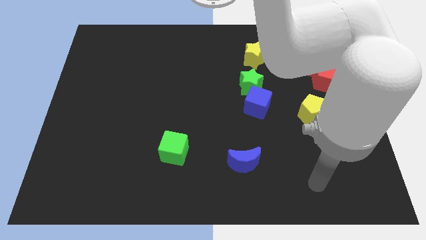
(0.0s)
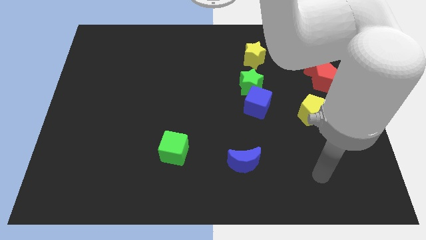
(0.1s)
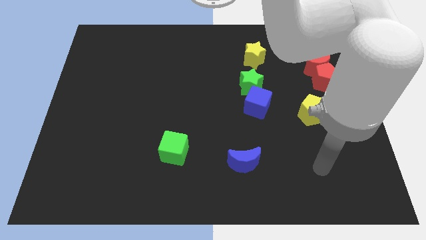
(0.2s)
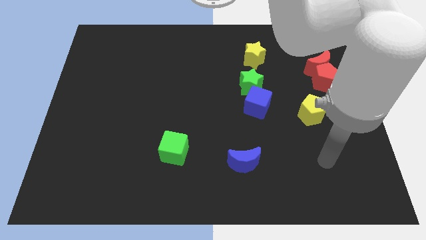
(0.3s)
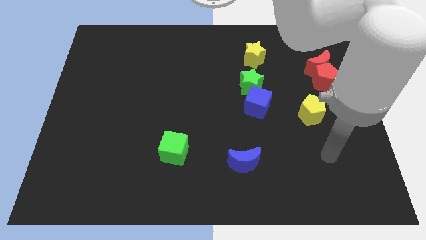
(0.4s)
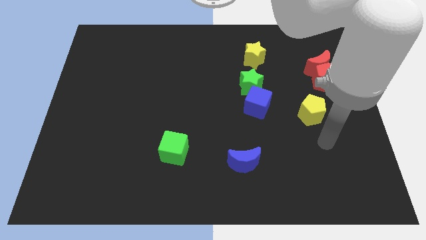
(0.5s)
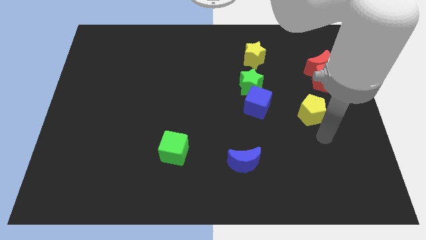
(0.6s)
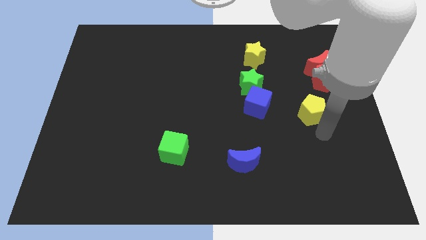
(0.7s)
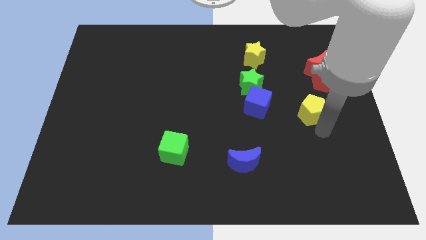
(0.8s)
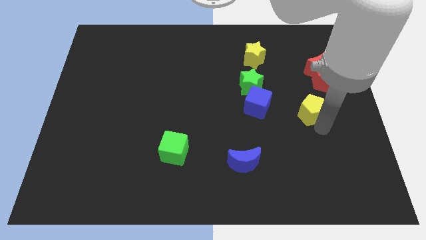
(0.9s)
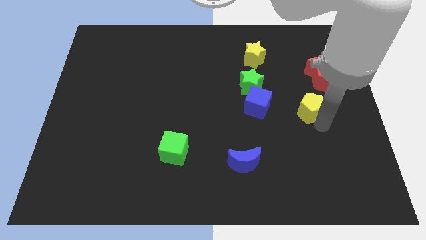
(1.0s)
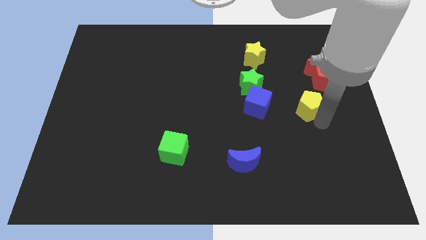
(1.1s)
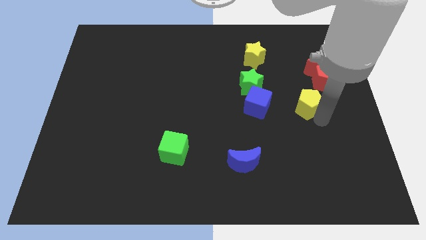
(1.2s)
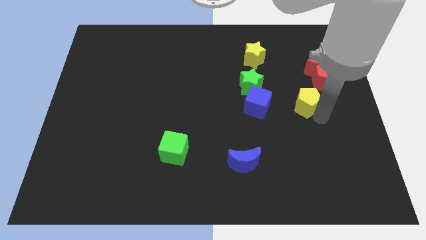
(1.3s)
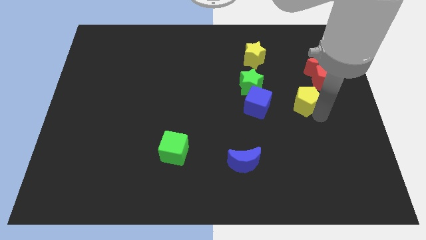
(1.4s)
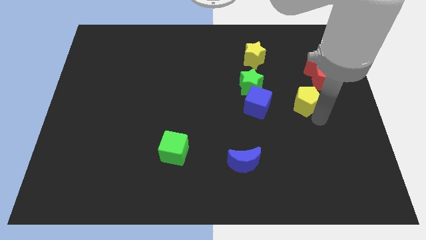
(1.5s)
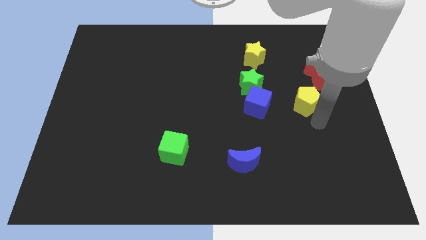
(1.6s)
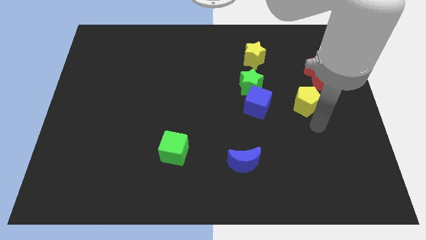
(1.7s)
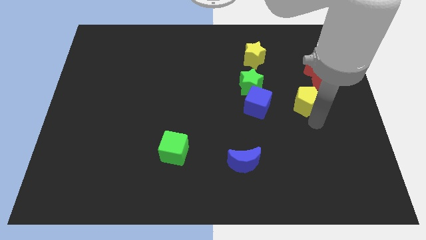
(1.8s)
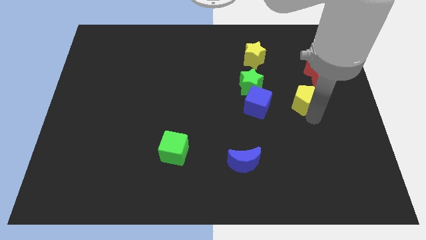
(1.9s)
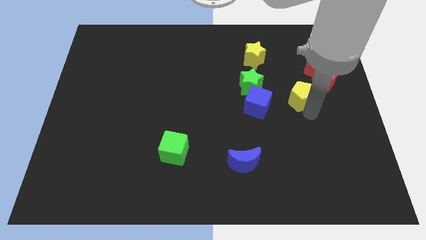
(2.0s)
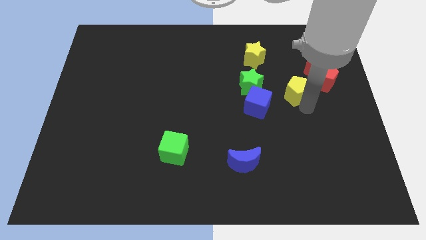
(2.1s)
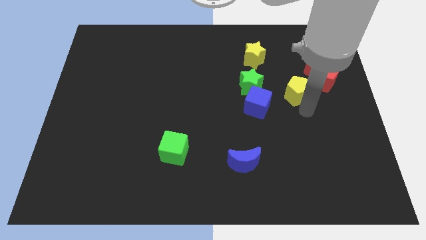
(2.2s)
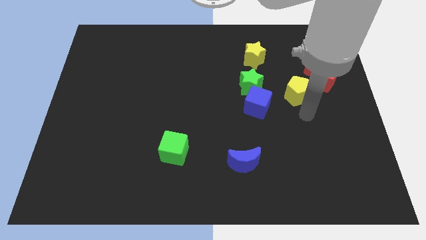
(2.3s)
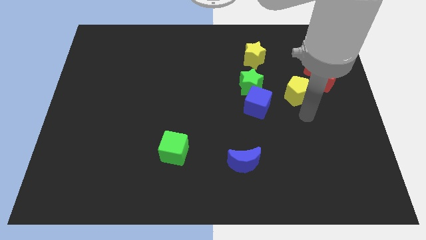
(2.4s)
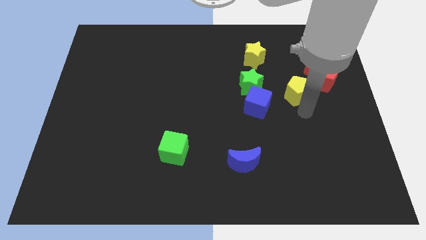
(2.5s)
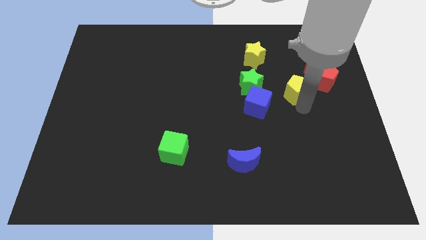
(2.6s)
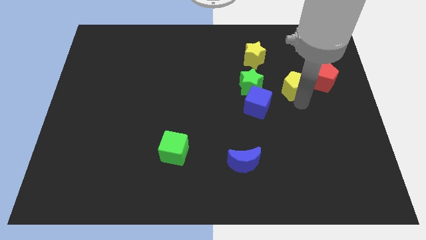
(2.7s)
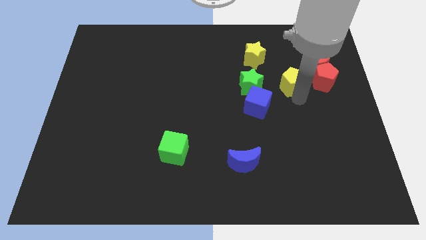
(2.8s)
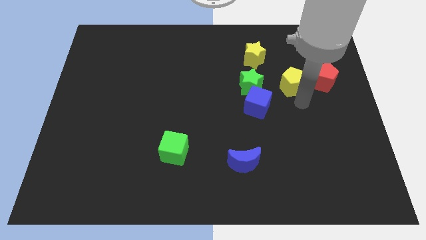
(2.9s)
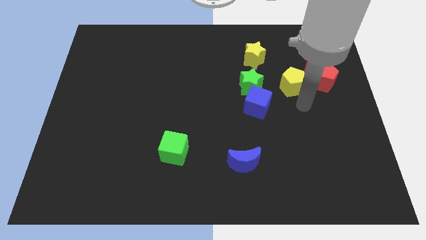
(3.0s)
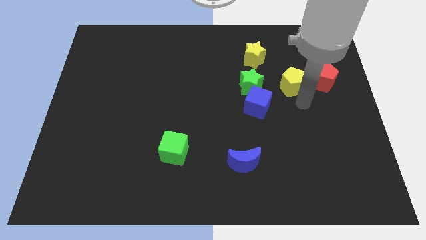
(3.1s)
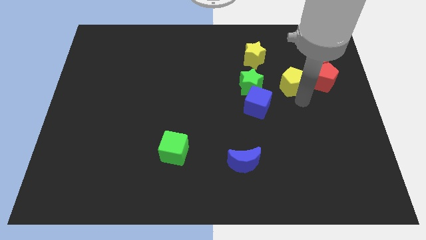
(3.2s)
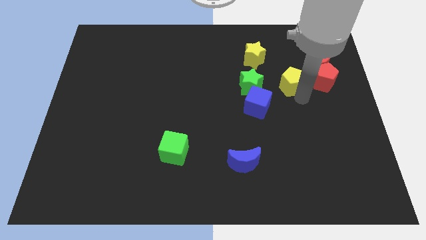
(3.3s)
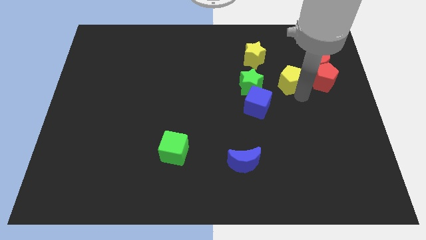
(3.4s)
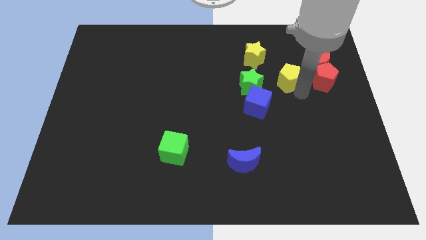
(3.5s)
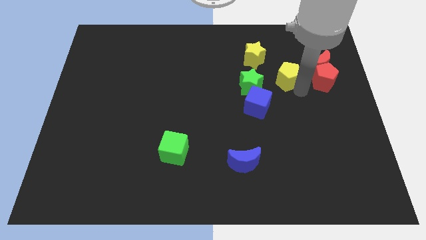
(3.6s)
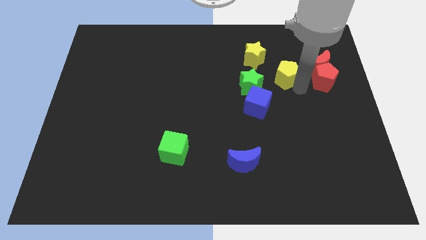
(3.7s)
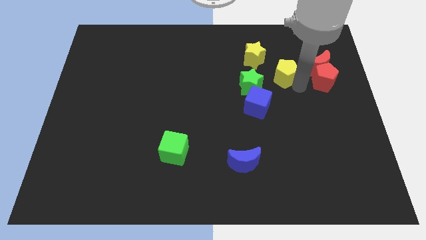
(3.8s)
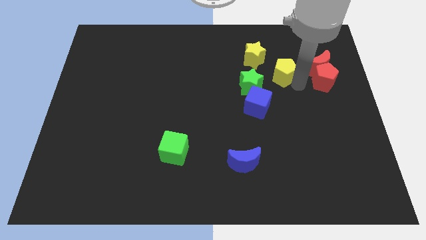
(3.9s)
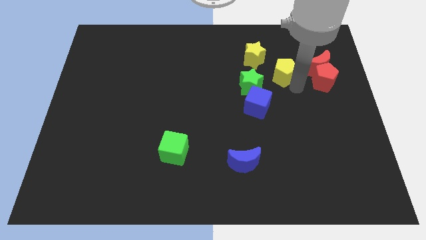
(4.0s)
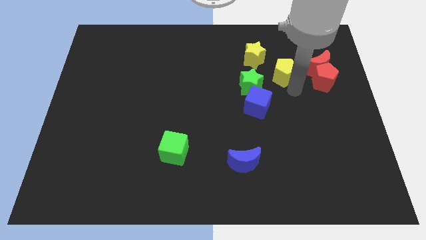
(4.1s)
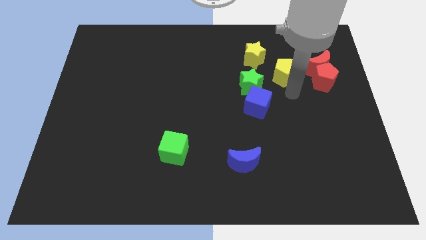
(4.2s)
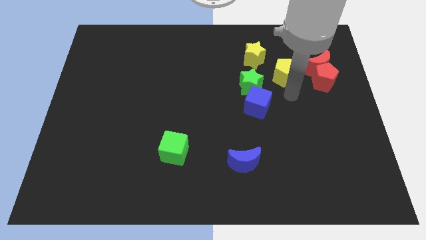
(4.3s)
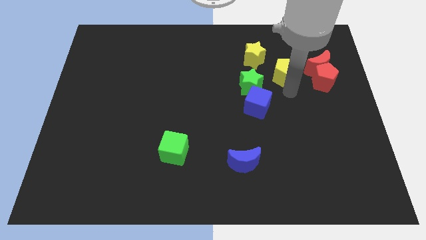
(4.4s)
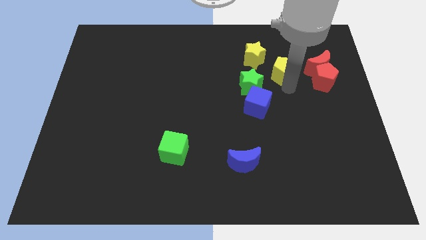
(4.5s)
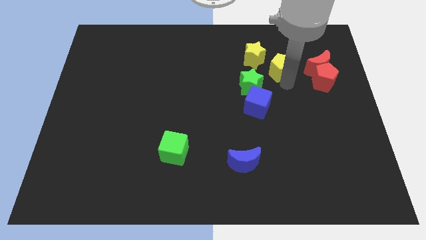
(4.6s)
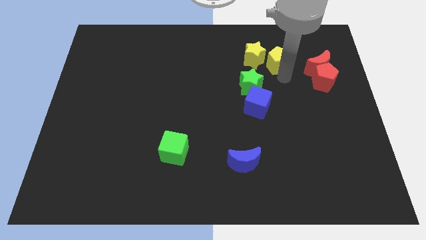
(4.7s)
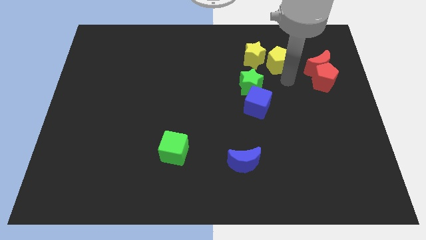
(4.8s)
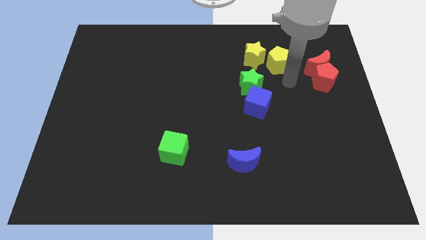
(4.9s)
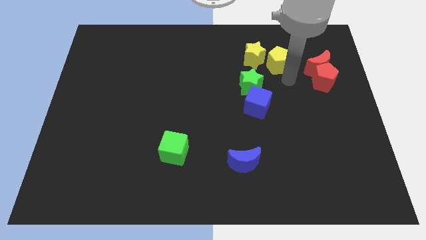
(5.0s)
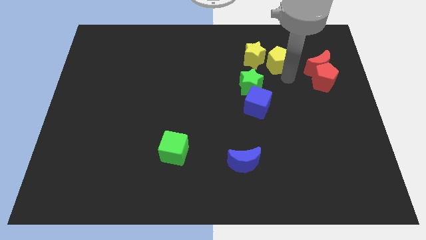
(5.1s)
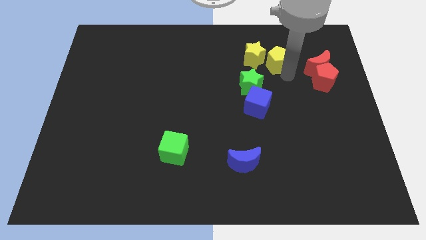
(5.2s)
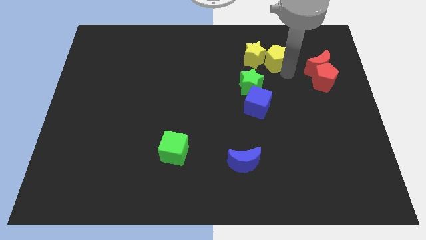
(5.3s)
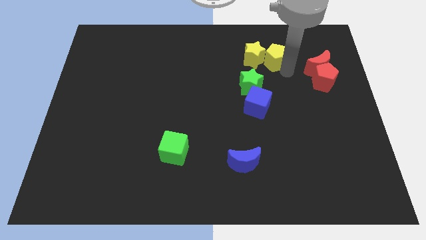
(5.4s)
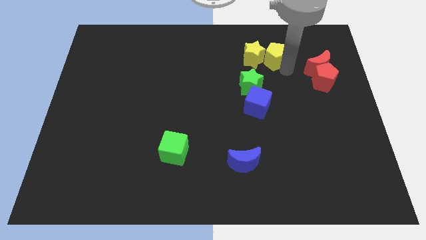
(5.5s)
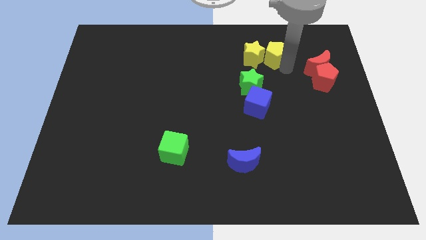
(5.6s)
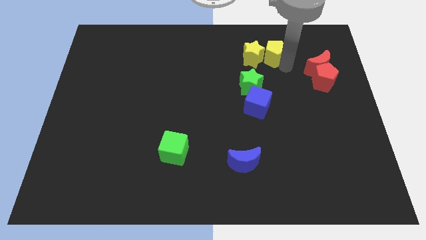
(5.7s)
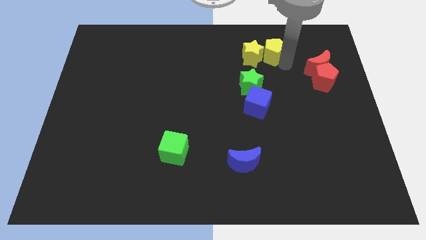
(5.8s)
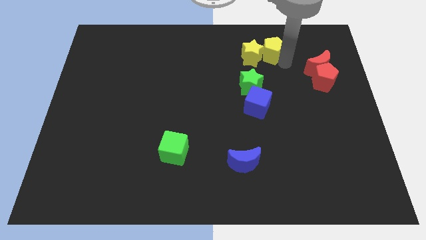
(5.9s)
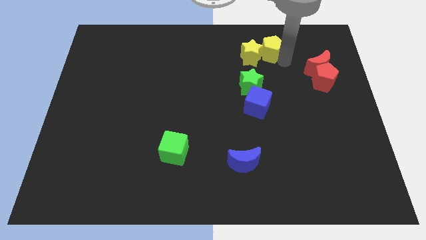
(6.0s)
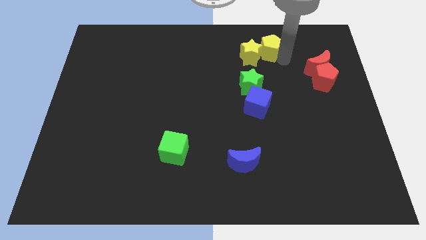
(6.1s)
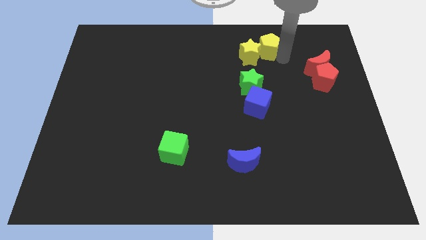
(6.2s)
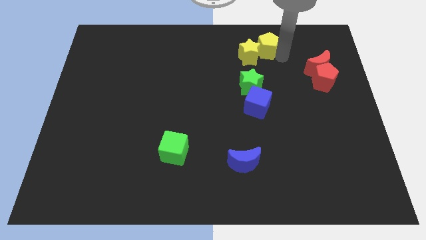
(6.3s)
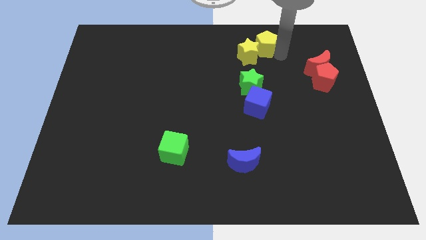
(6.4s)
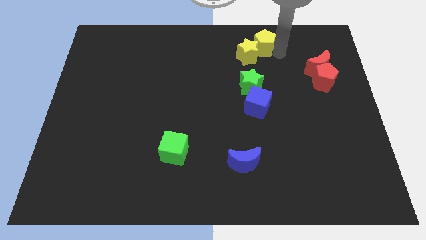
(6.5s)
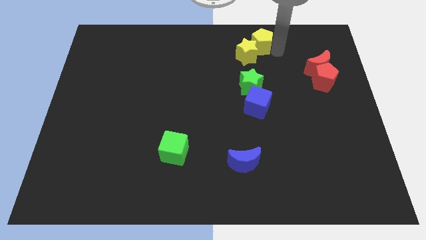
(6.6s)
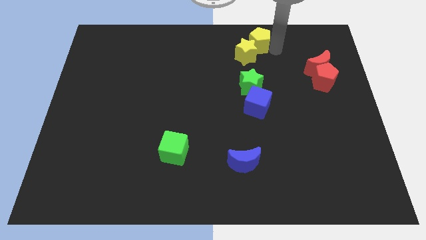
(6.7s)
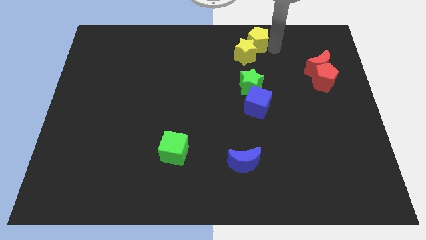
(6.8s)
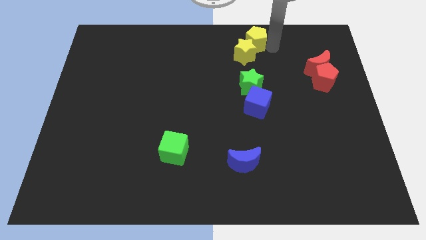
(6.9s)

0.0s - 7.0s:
move the yellow pentagon to the towards your base
